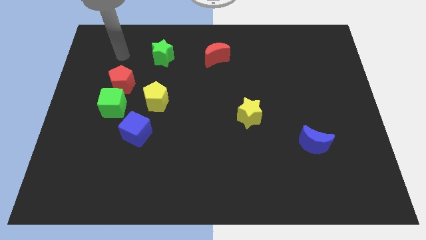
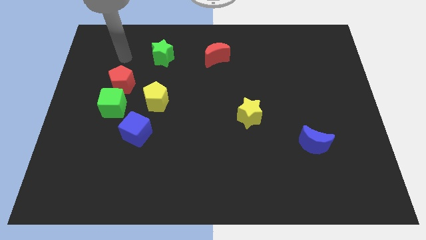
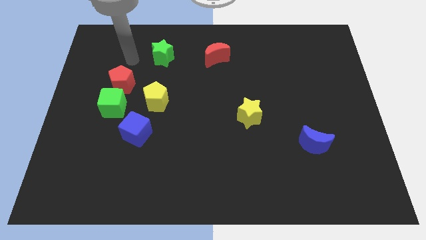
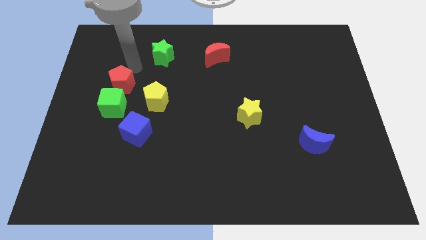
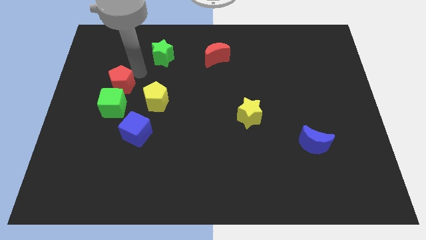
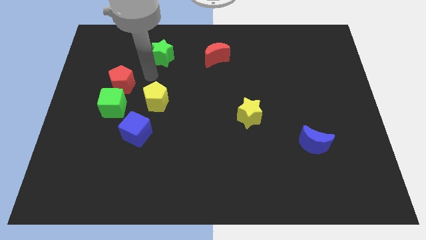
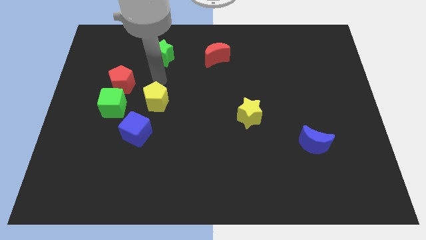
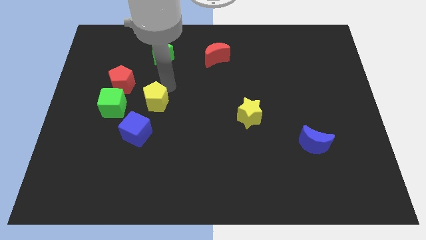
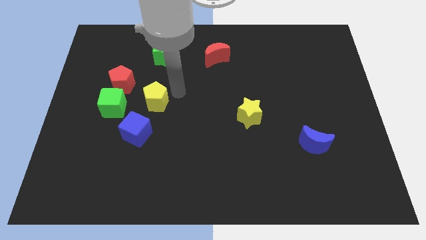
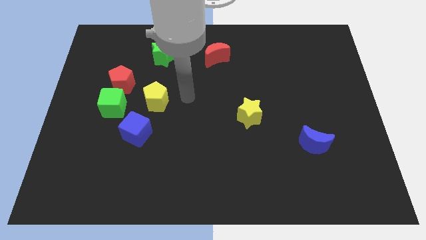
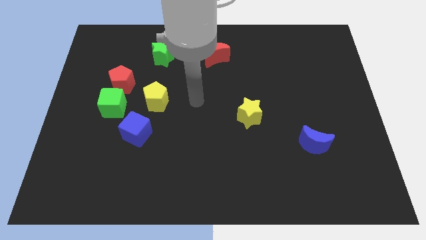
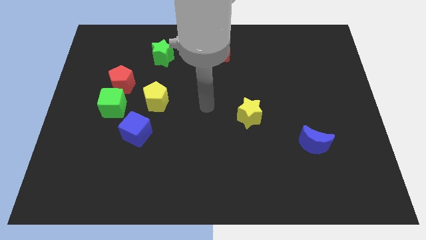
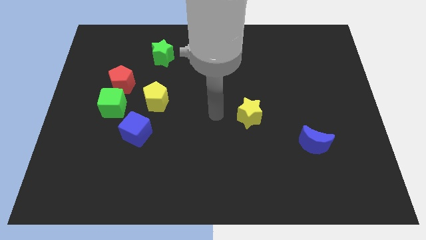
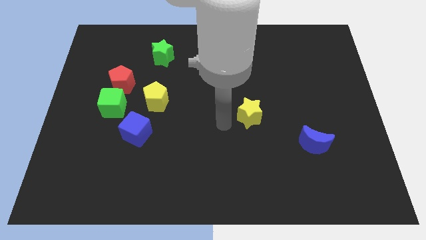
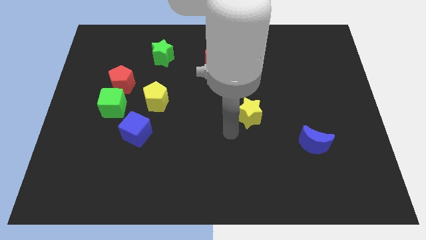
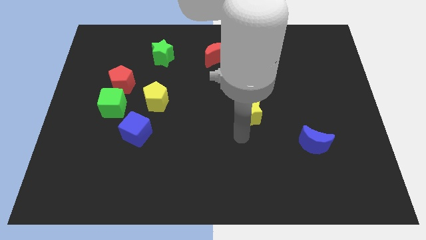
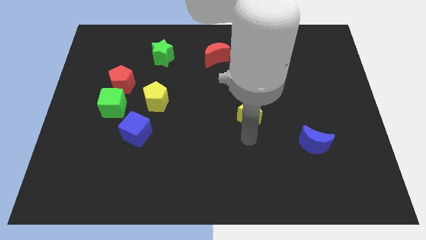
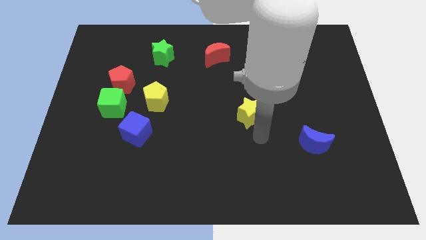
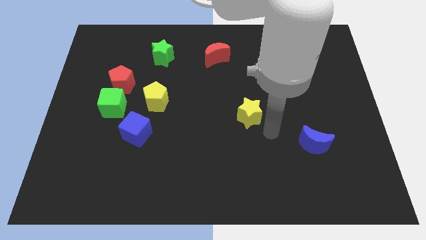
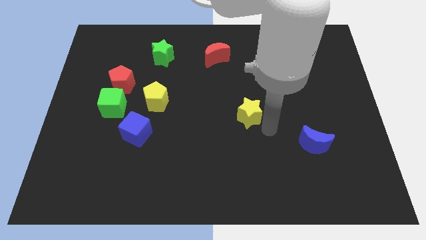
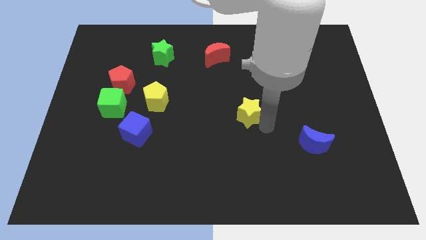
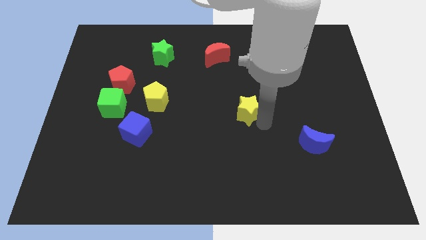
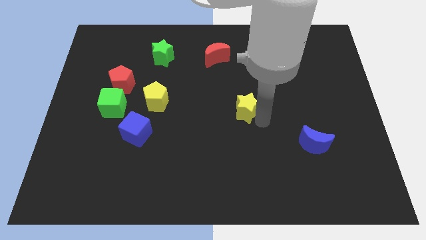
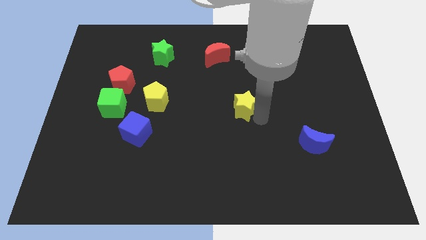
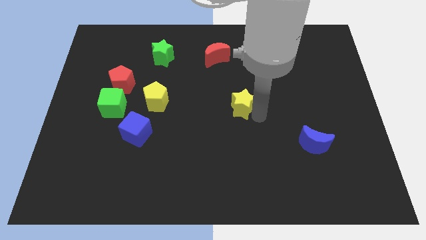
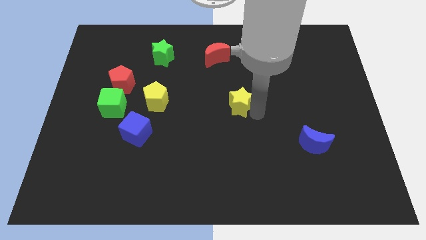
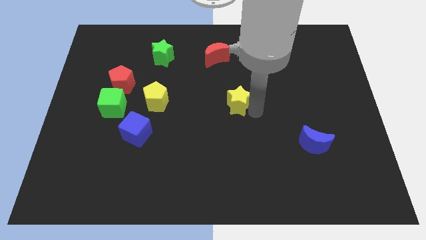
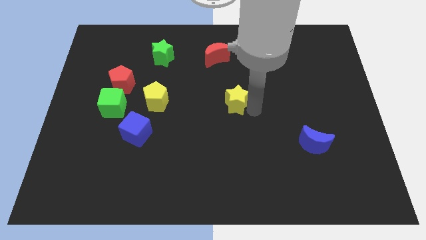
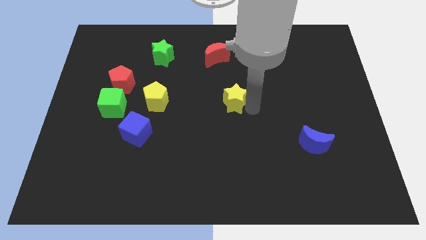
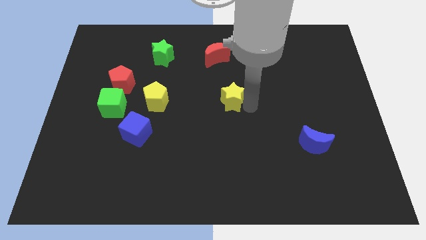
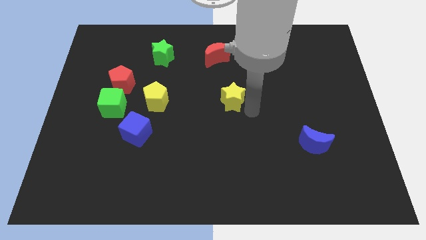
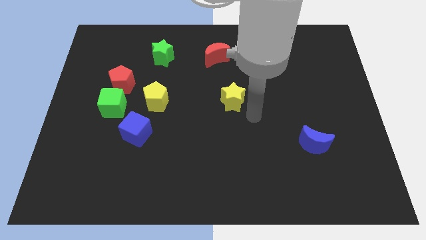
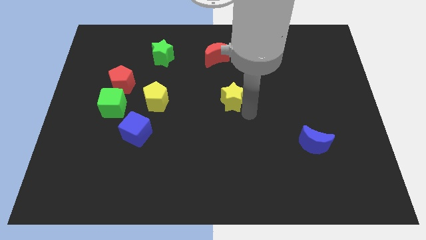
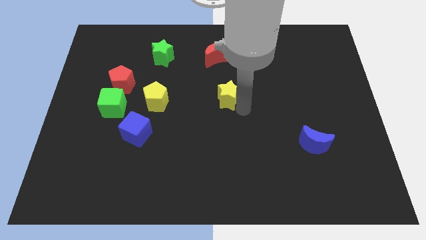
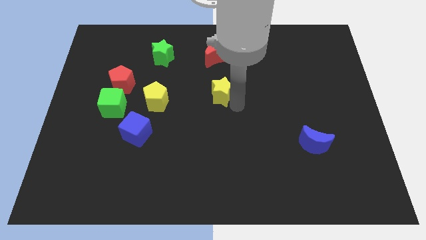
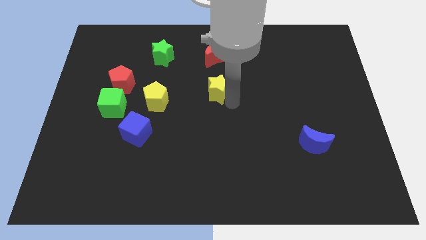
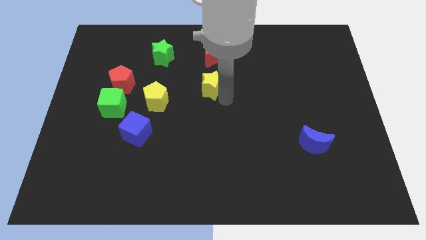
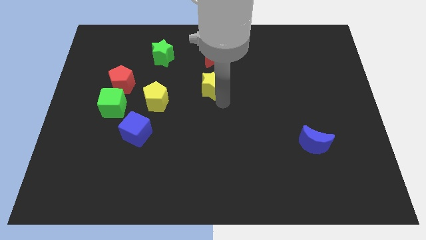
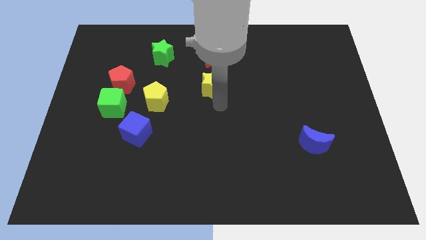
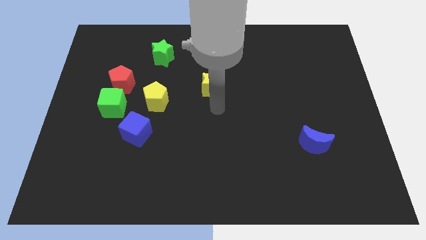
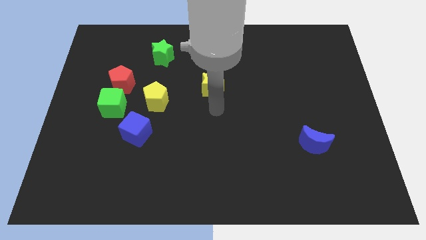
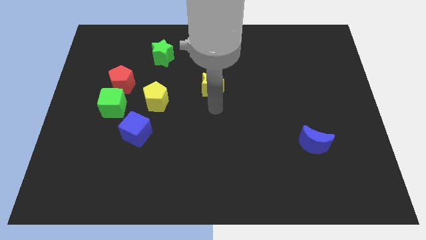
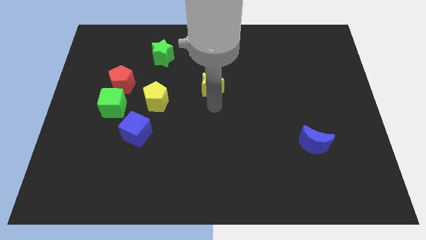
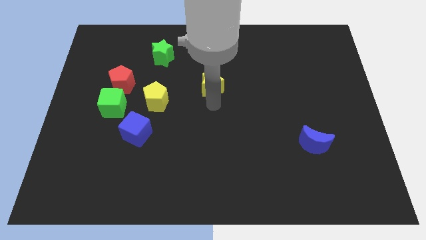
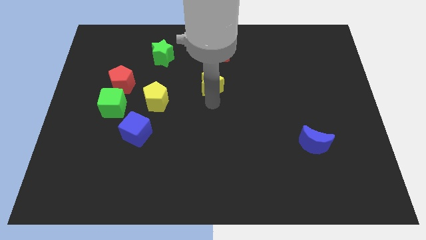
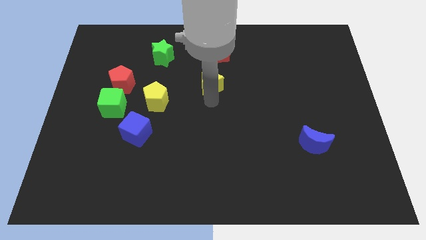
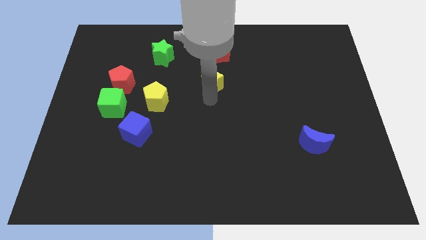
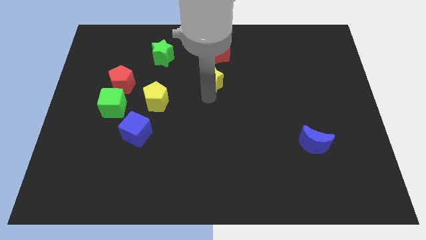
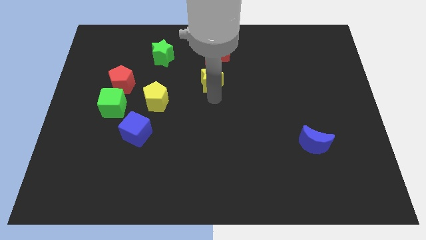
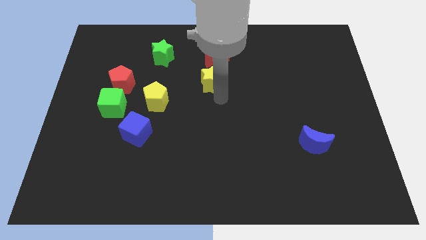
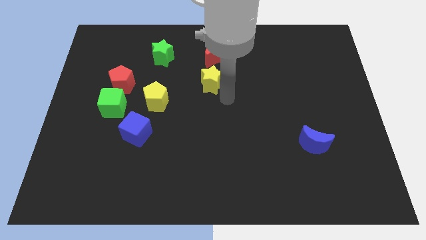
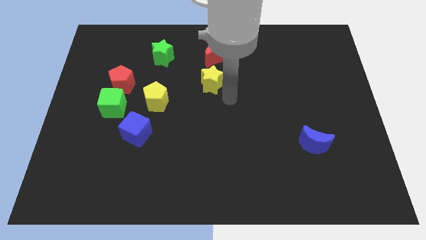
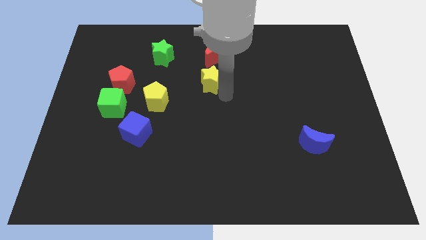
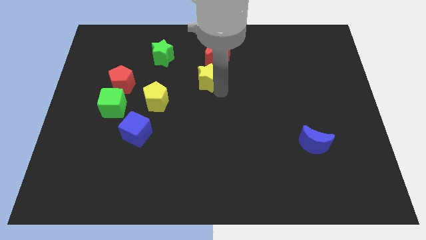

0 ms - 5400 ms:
push the yellow star to the bottom left side of the red moon

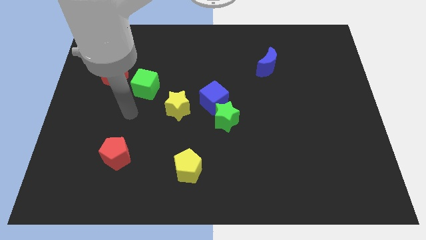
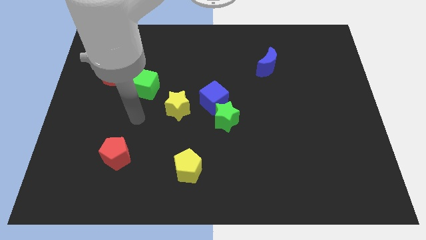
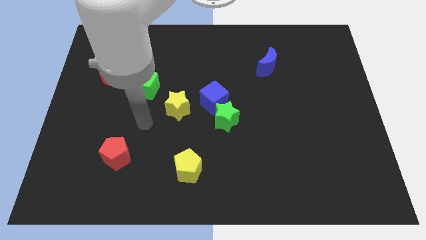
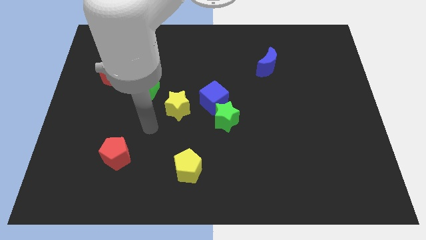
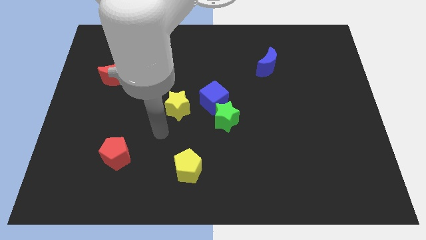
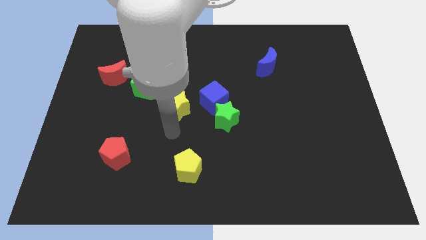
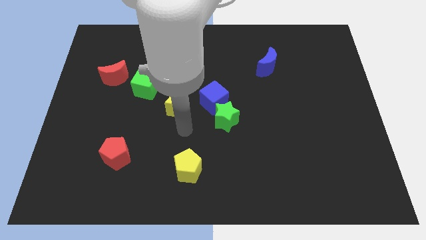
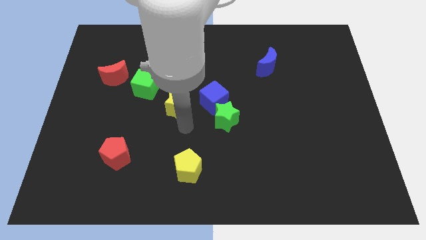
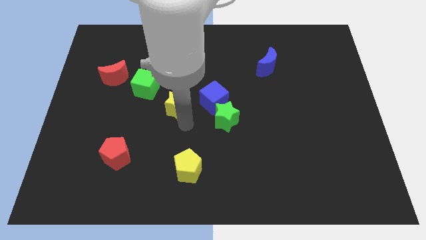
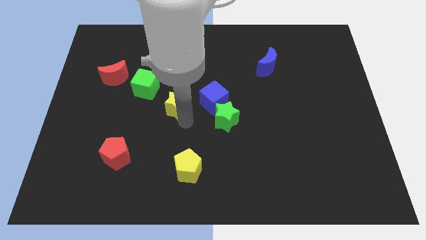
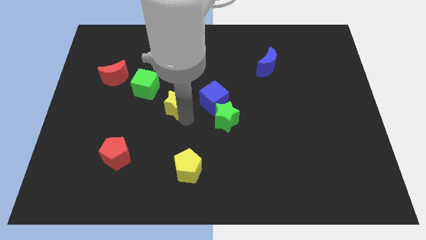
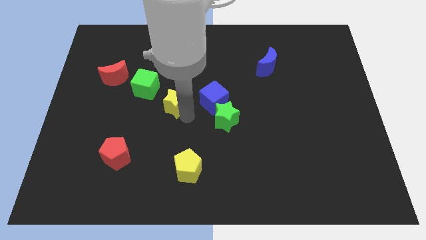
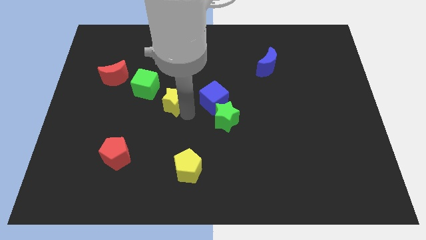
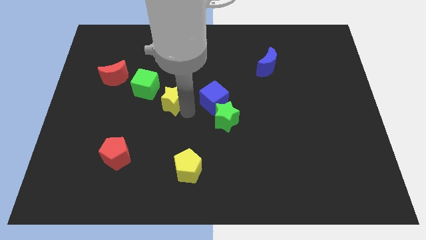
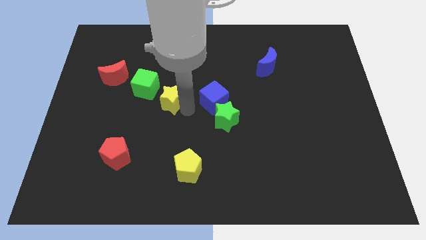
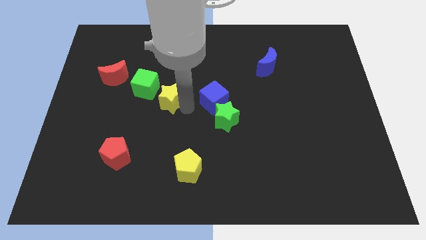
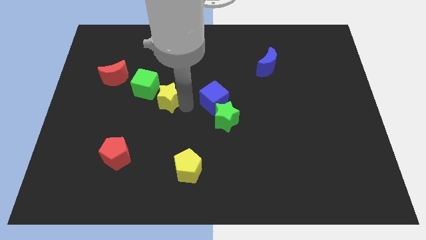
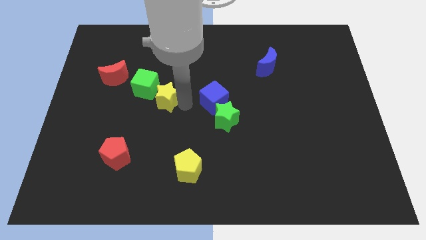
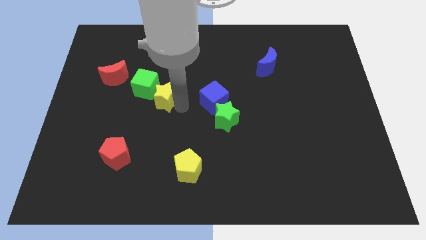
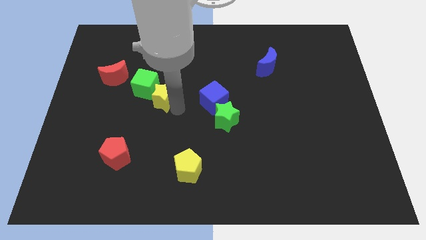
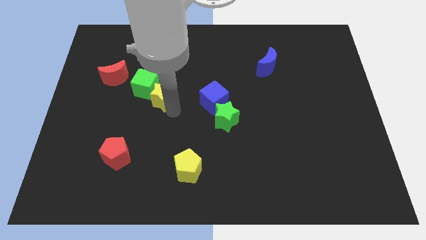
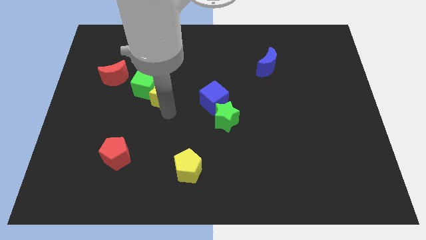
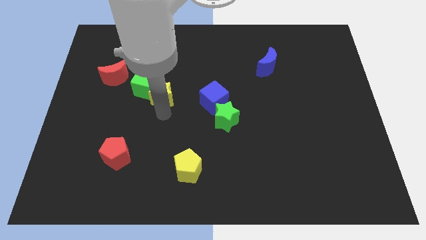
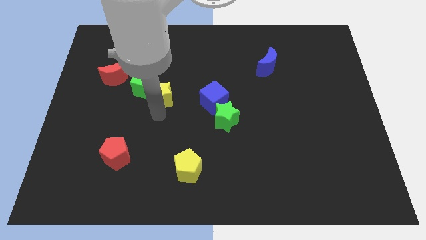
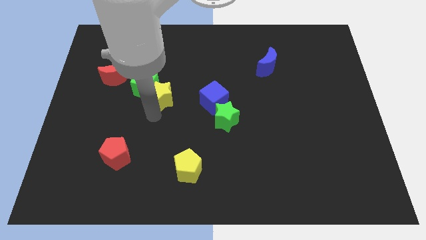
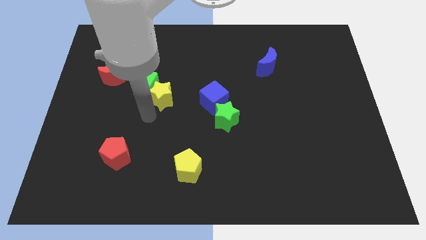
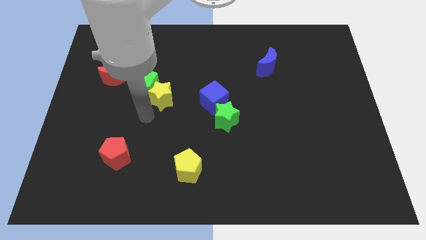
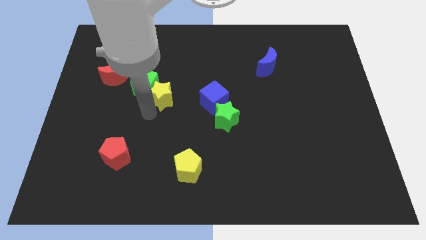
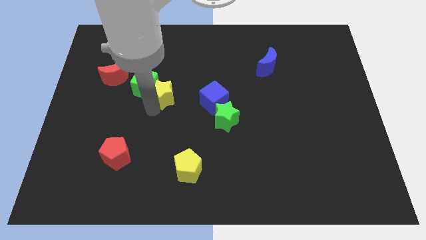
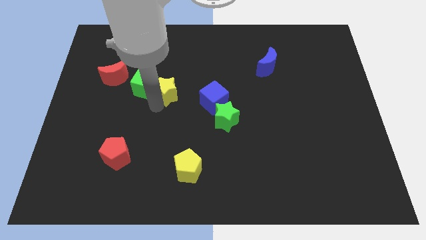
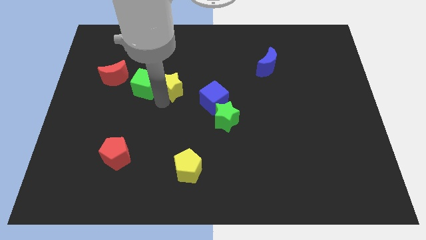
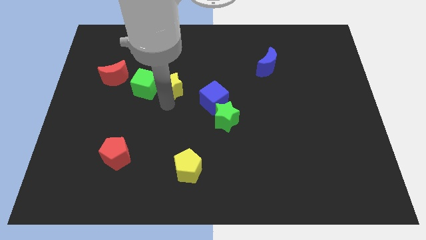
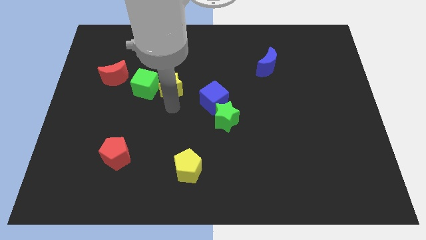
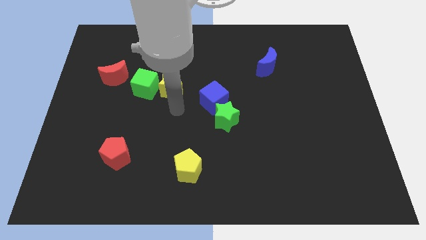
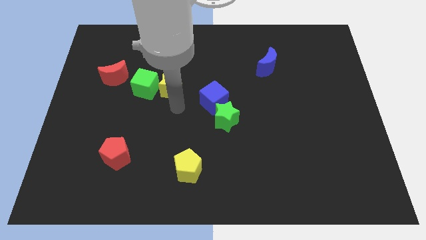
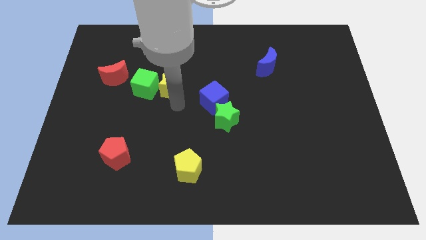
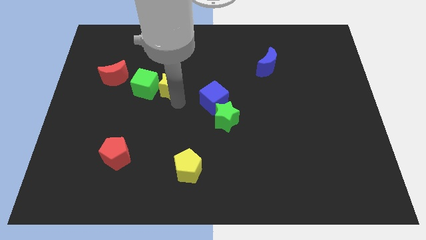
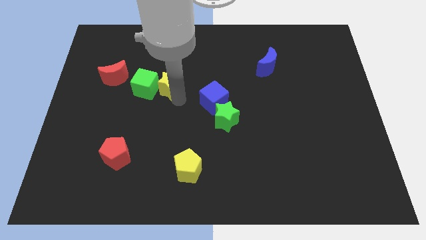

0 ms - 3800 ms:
move the yellow star to the top right of the green cube
